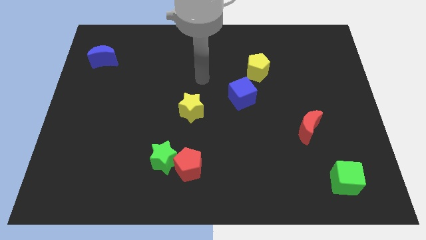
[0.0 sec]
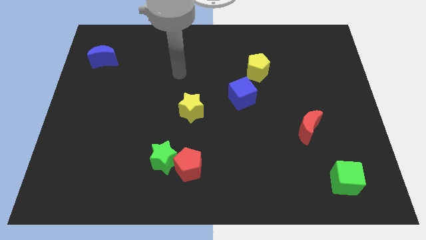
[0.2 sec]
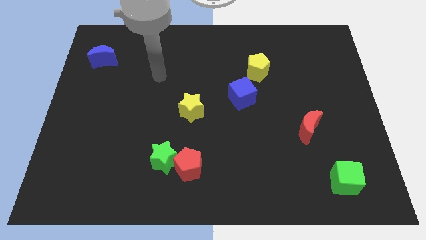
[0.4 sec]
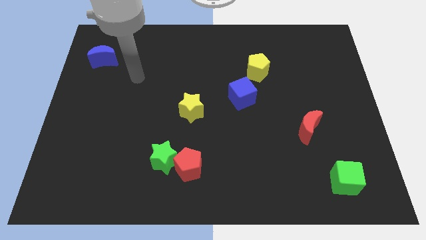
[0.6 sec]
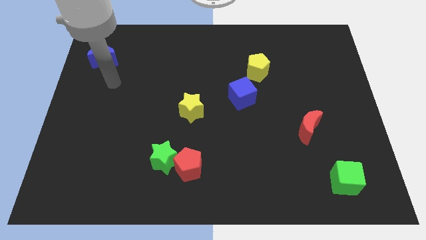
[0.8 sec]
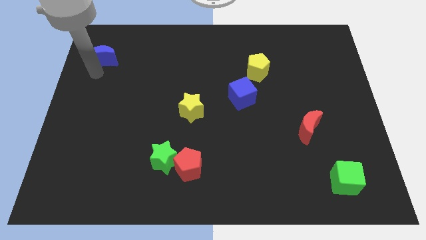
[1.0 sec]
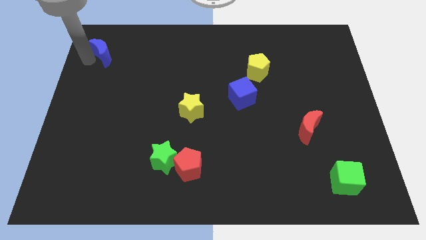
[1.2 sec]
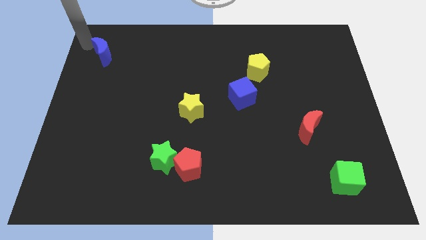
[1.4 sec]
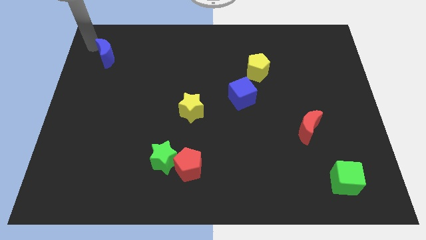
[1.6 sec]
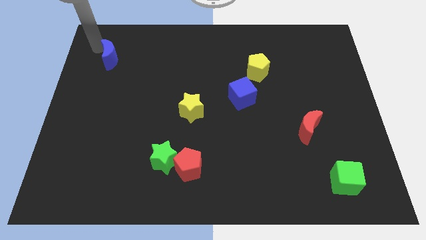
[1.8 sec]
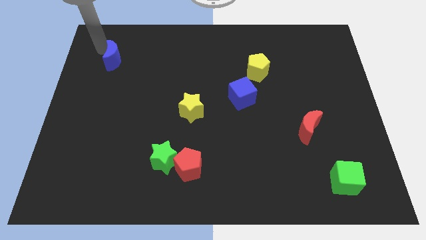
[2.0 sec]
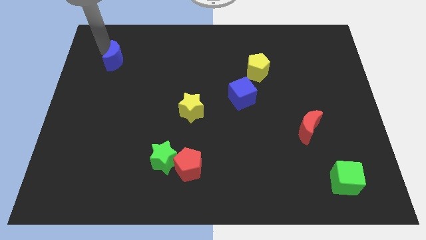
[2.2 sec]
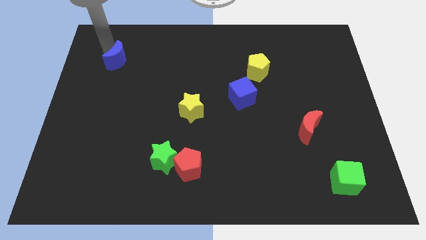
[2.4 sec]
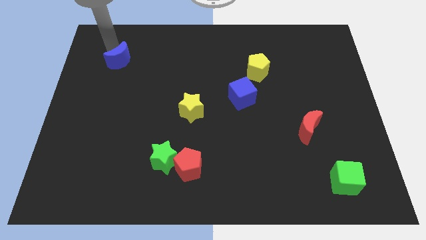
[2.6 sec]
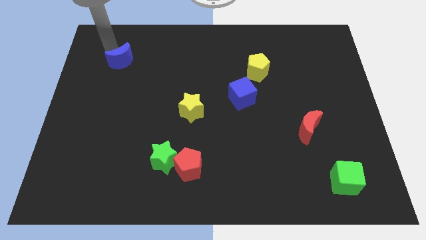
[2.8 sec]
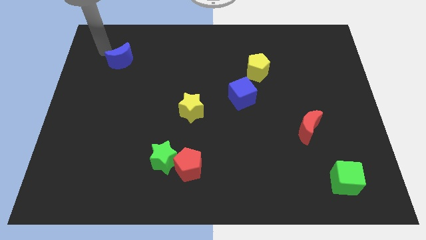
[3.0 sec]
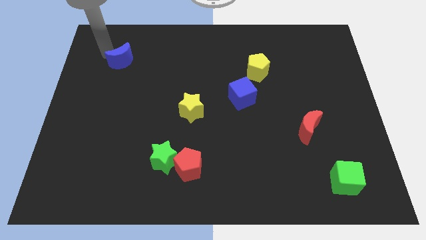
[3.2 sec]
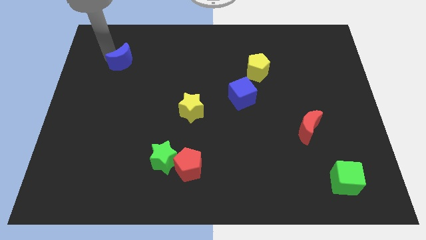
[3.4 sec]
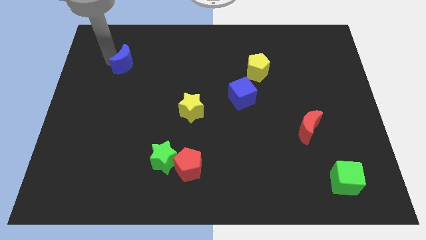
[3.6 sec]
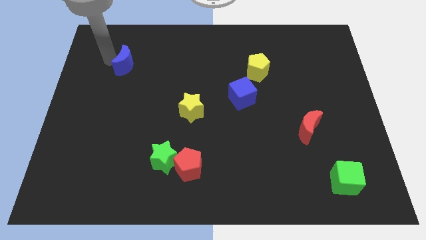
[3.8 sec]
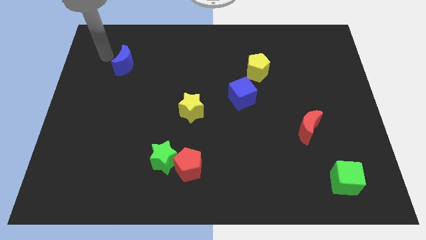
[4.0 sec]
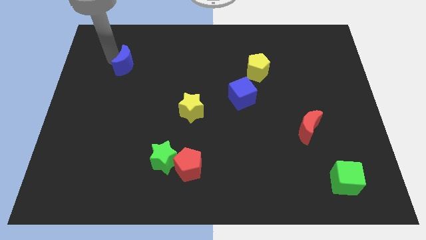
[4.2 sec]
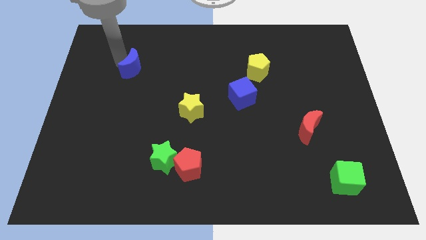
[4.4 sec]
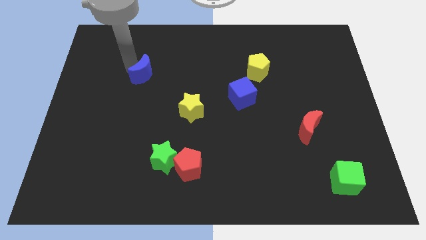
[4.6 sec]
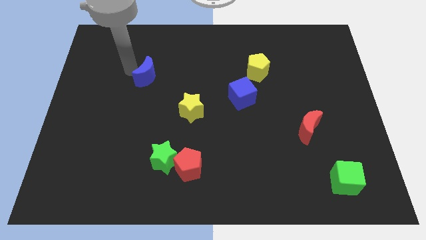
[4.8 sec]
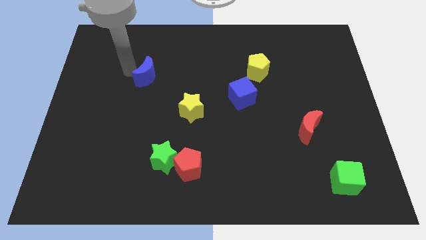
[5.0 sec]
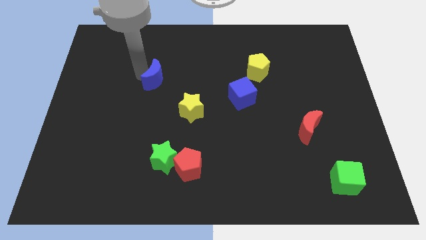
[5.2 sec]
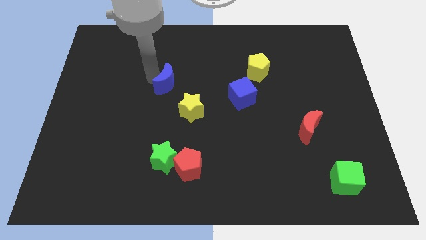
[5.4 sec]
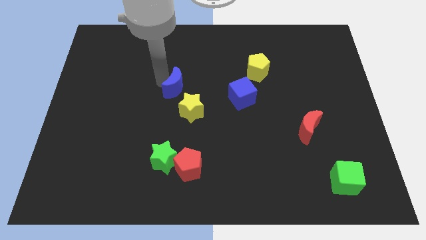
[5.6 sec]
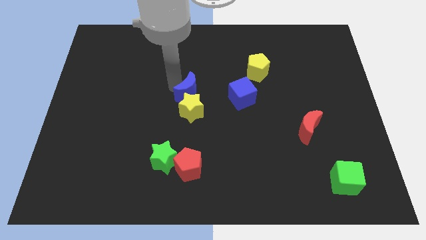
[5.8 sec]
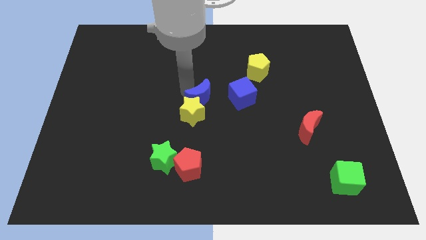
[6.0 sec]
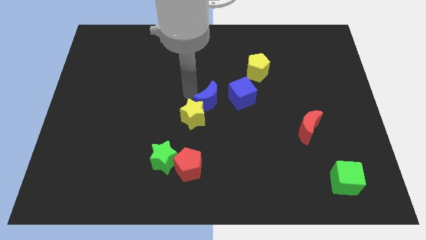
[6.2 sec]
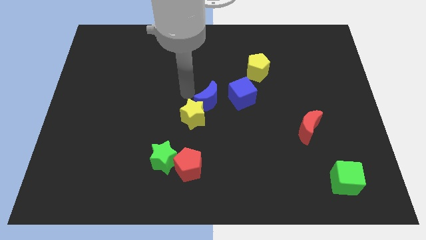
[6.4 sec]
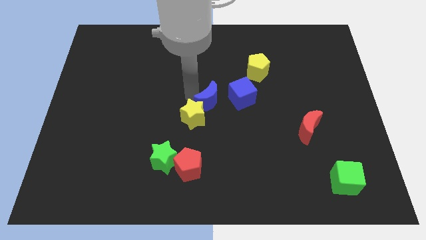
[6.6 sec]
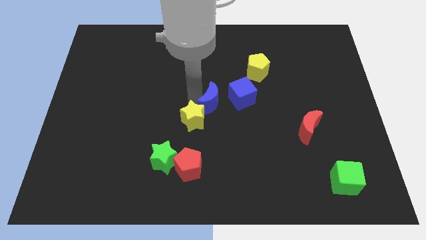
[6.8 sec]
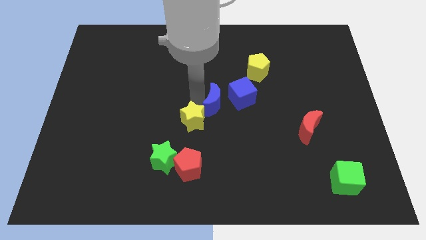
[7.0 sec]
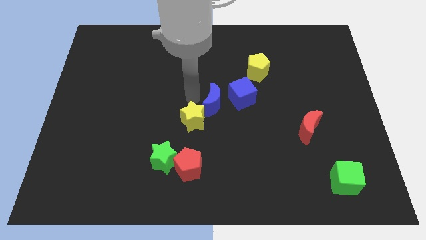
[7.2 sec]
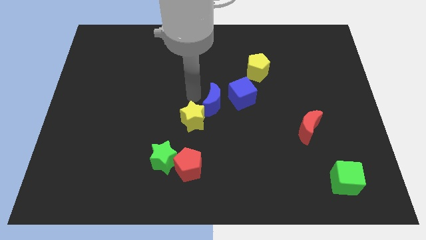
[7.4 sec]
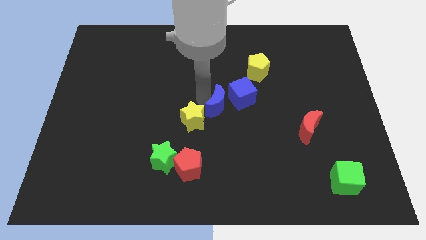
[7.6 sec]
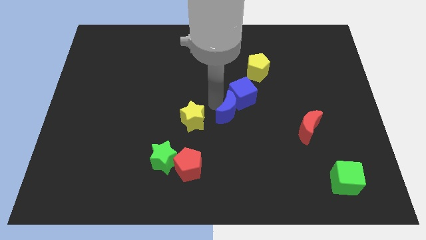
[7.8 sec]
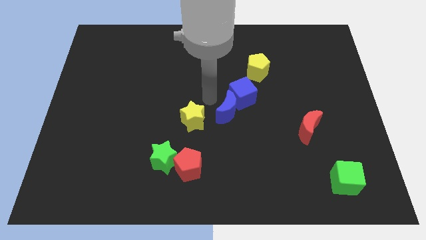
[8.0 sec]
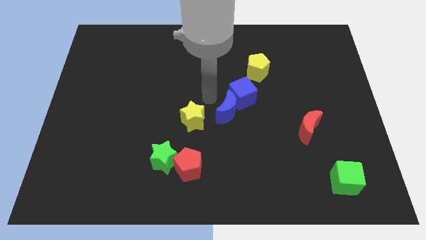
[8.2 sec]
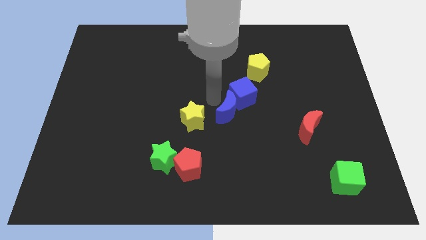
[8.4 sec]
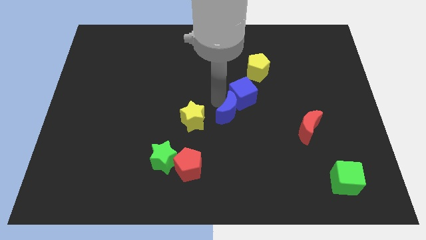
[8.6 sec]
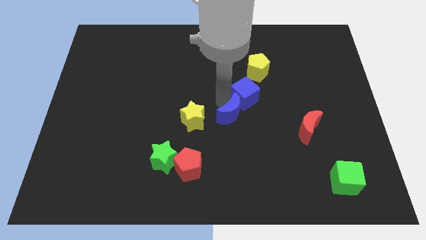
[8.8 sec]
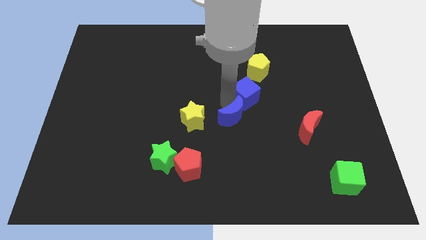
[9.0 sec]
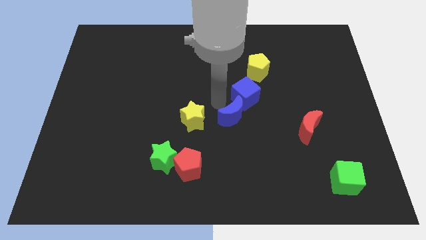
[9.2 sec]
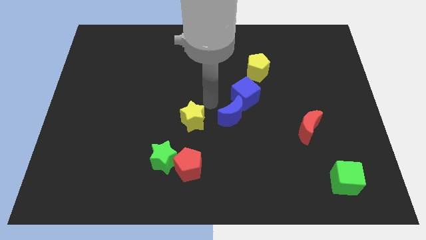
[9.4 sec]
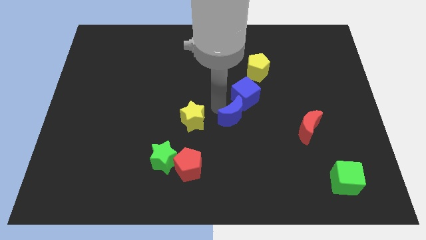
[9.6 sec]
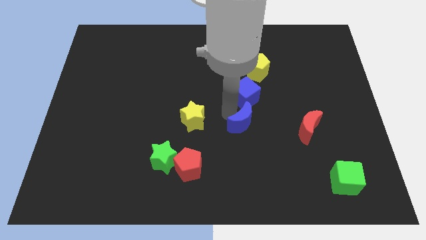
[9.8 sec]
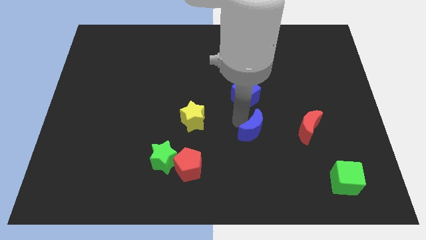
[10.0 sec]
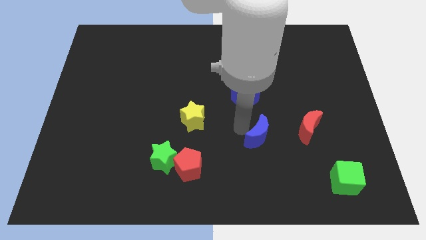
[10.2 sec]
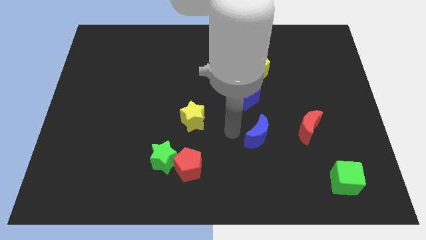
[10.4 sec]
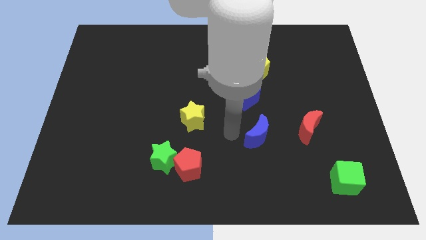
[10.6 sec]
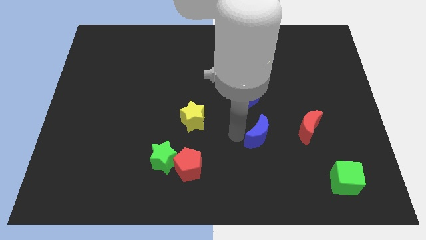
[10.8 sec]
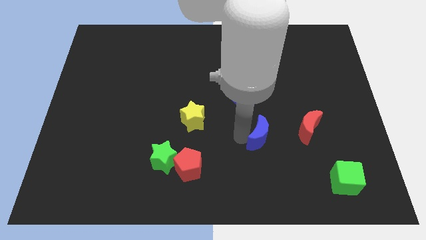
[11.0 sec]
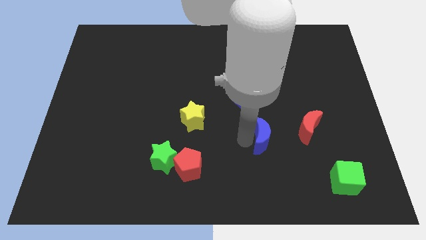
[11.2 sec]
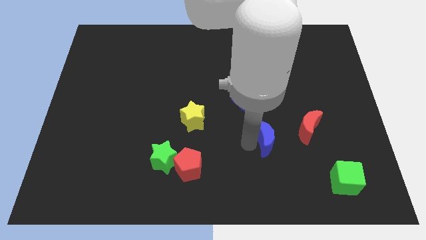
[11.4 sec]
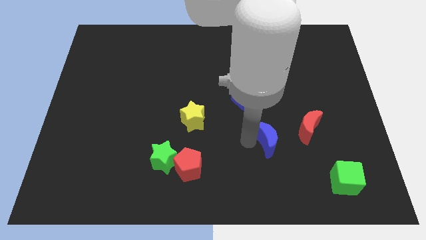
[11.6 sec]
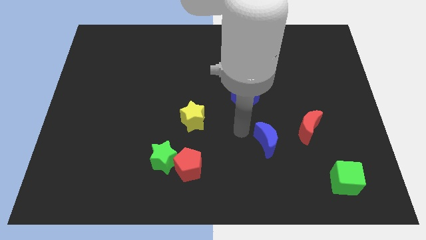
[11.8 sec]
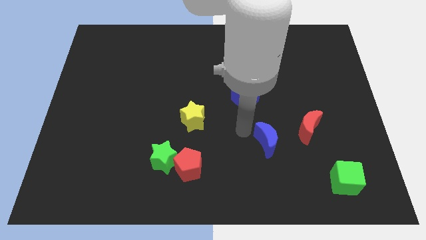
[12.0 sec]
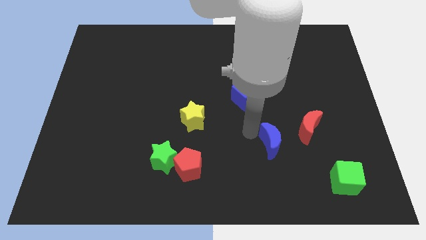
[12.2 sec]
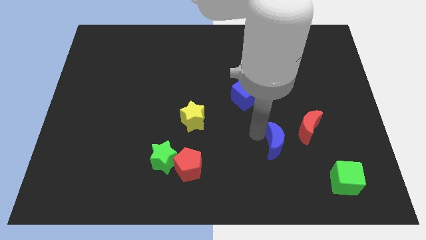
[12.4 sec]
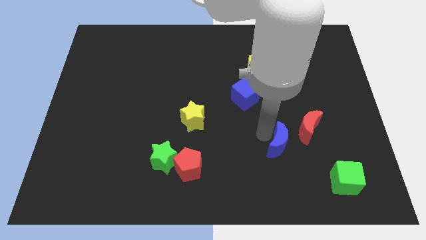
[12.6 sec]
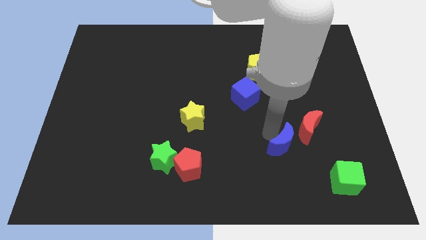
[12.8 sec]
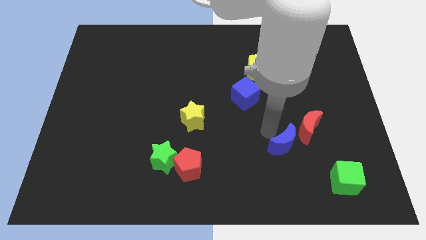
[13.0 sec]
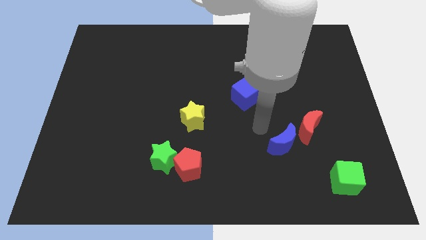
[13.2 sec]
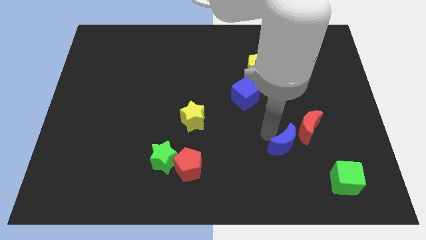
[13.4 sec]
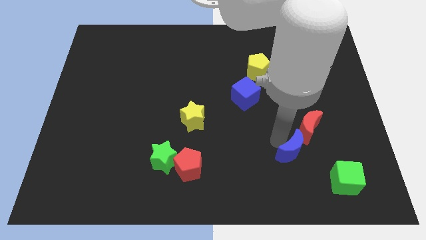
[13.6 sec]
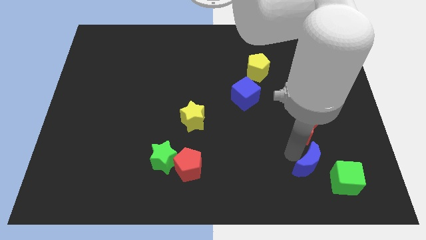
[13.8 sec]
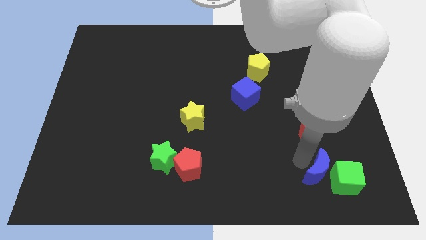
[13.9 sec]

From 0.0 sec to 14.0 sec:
slide the blue moon towards the green cube

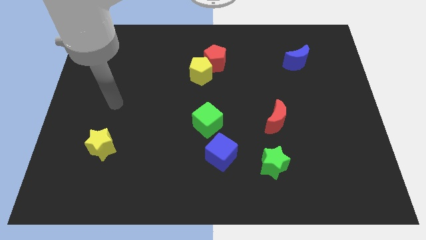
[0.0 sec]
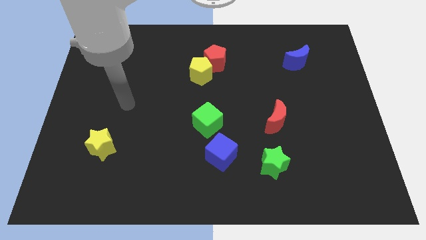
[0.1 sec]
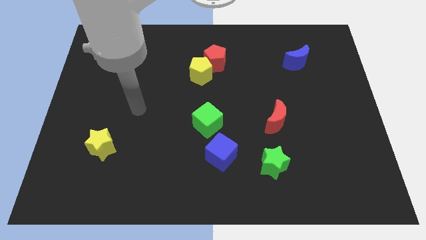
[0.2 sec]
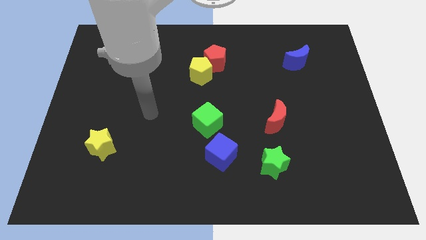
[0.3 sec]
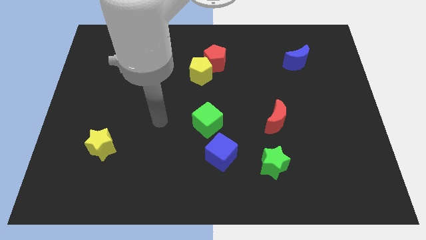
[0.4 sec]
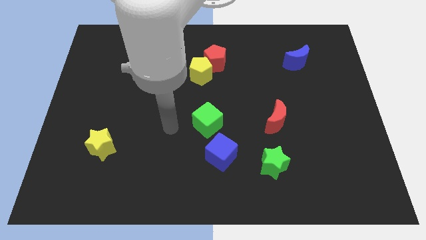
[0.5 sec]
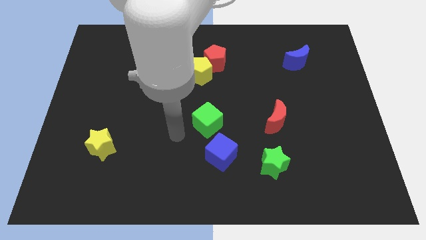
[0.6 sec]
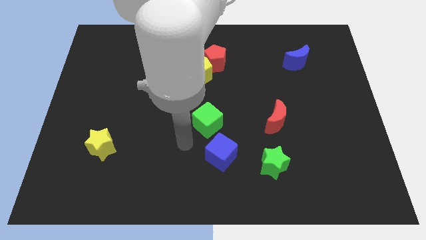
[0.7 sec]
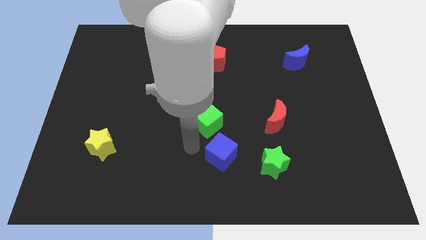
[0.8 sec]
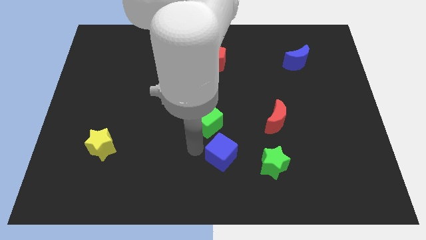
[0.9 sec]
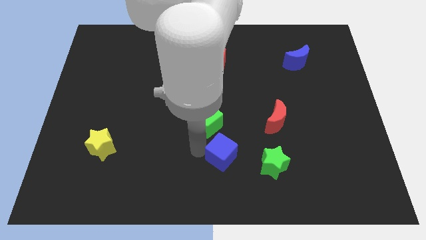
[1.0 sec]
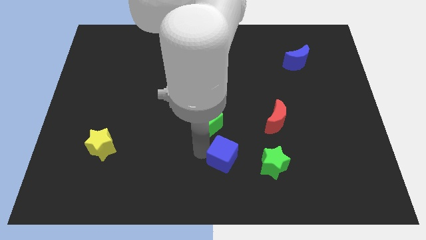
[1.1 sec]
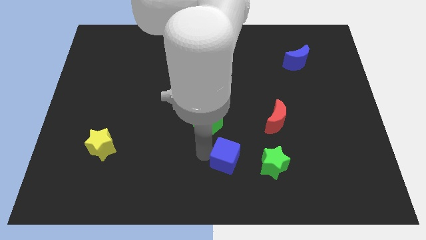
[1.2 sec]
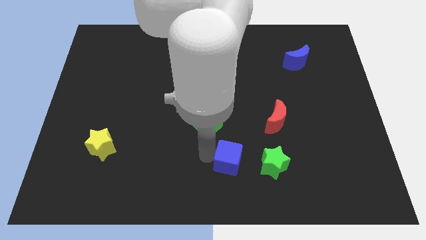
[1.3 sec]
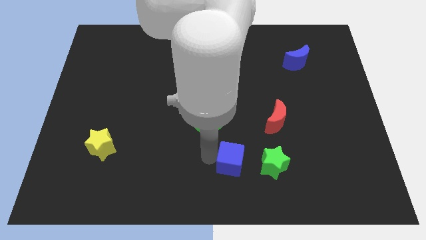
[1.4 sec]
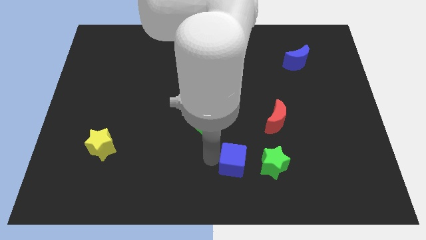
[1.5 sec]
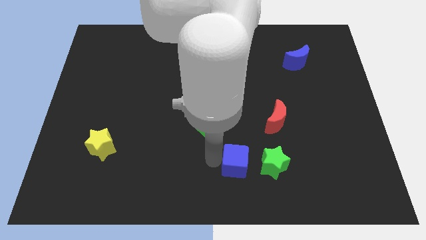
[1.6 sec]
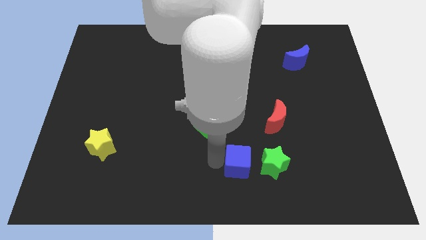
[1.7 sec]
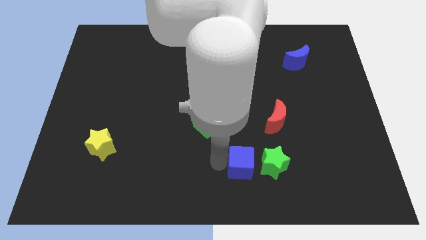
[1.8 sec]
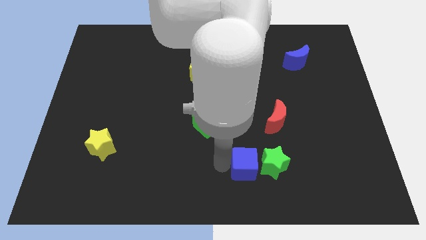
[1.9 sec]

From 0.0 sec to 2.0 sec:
move the blue cube towards the green star
